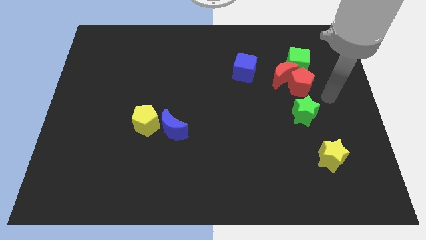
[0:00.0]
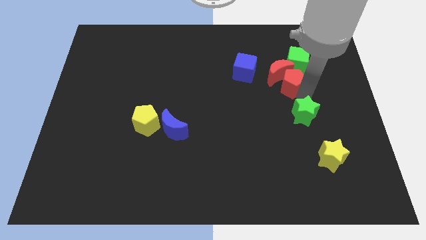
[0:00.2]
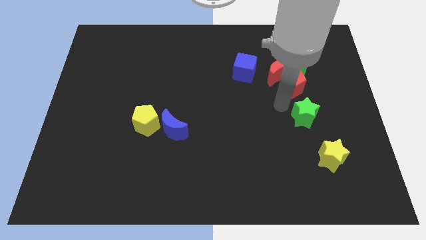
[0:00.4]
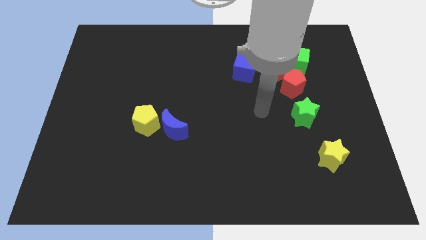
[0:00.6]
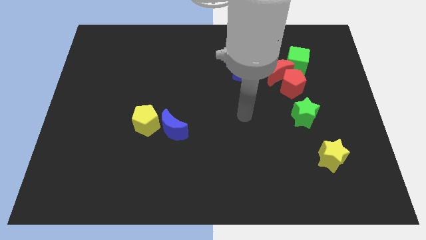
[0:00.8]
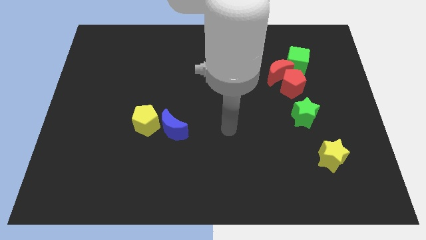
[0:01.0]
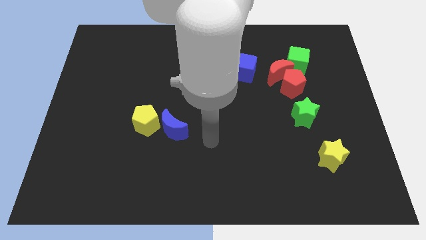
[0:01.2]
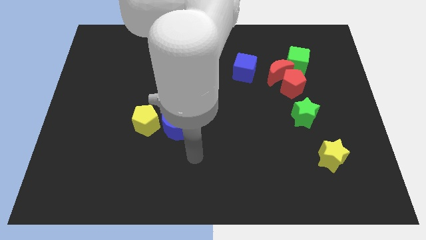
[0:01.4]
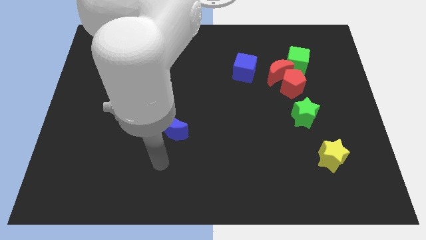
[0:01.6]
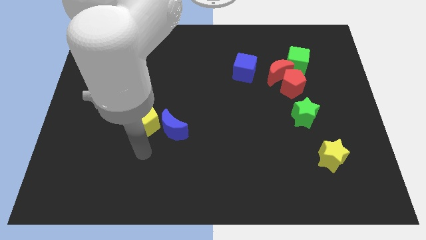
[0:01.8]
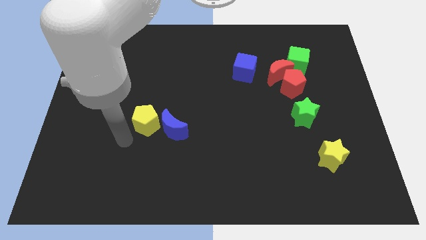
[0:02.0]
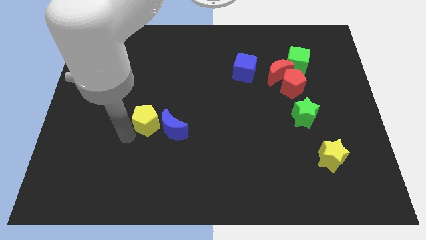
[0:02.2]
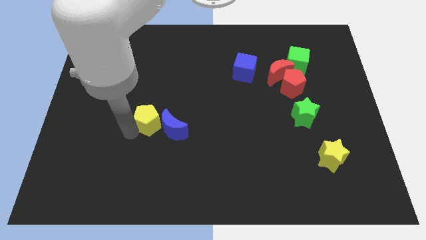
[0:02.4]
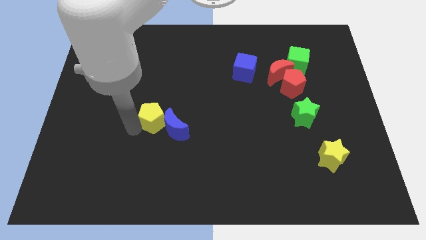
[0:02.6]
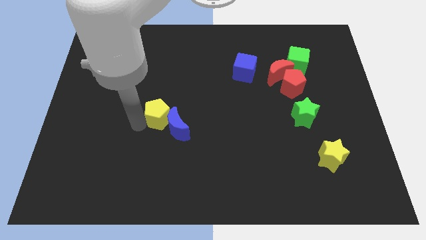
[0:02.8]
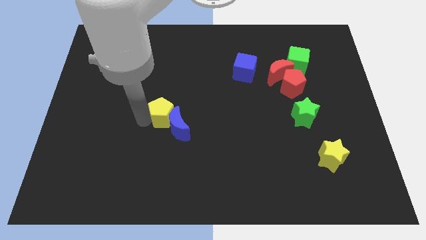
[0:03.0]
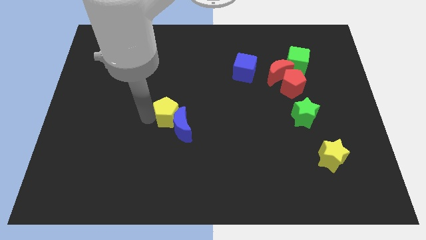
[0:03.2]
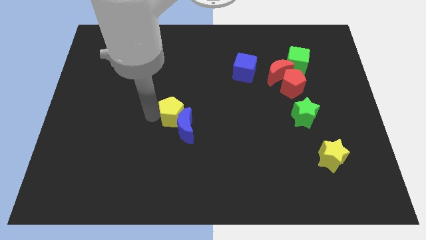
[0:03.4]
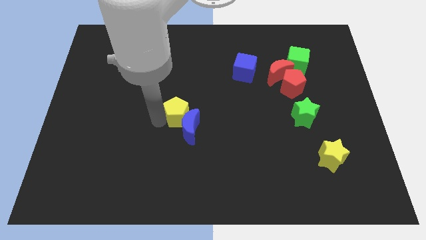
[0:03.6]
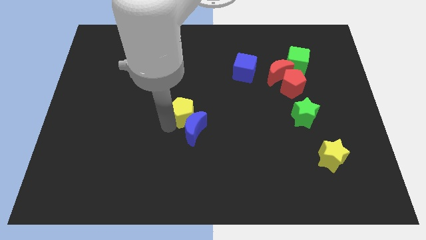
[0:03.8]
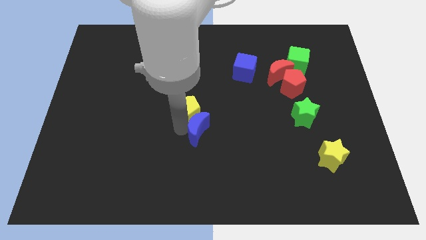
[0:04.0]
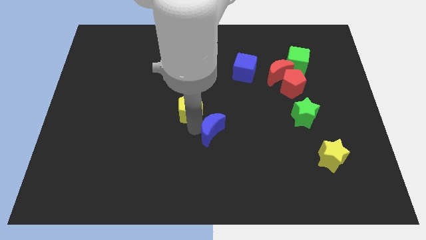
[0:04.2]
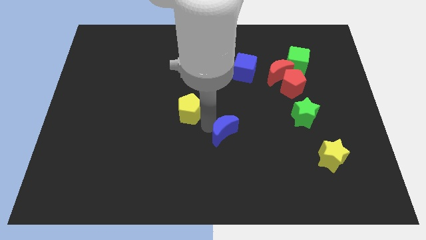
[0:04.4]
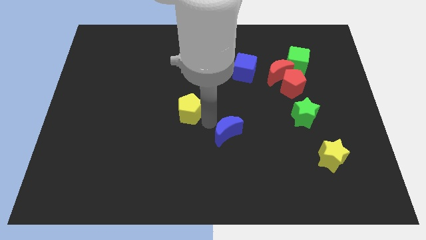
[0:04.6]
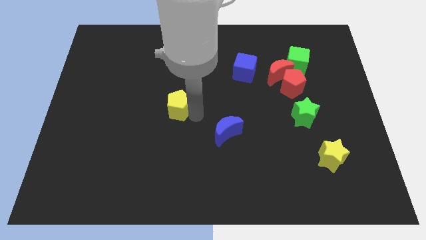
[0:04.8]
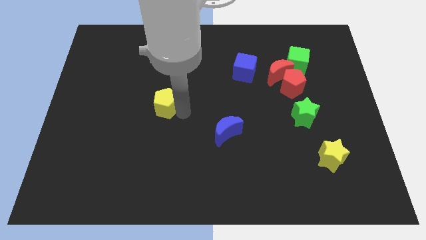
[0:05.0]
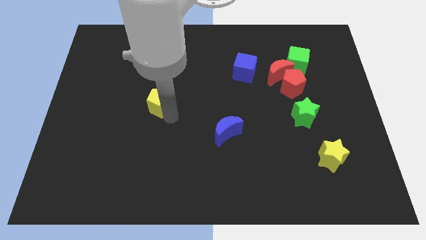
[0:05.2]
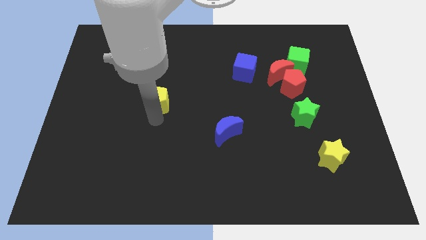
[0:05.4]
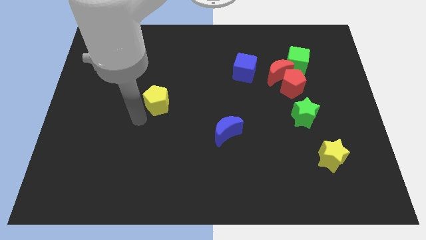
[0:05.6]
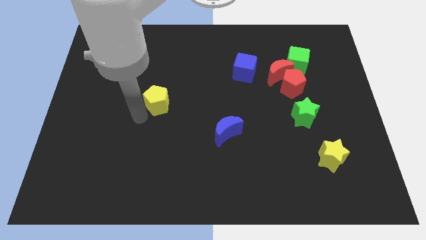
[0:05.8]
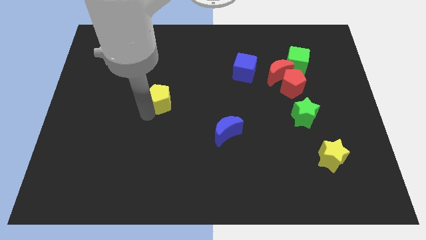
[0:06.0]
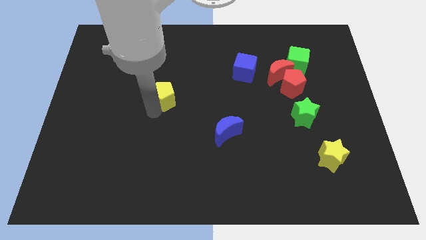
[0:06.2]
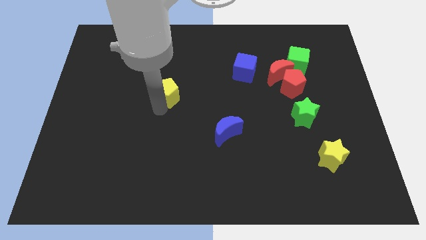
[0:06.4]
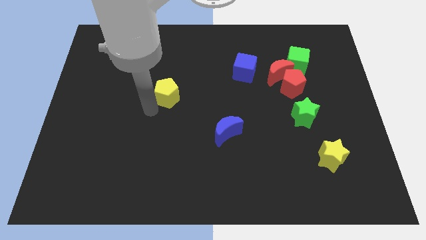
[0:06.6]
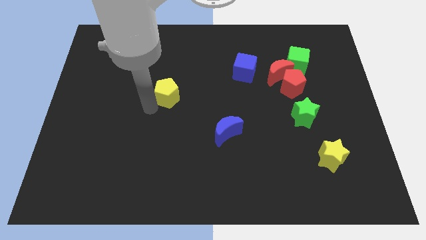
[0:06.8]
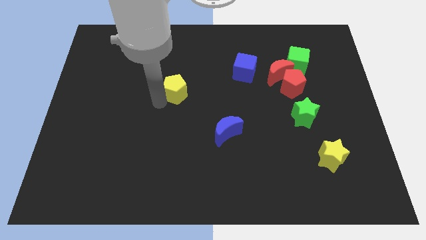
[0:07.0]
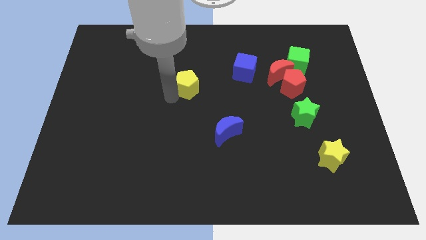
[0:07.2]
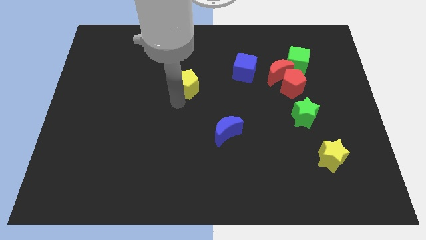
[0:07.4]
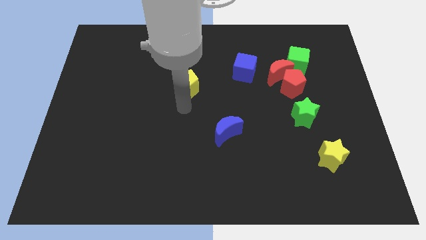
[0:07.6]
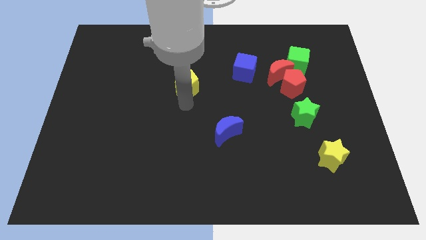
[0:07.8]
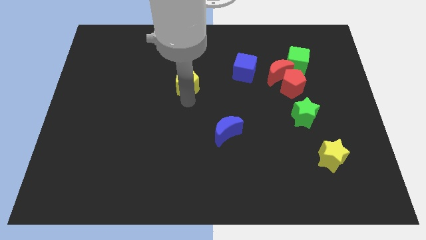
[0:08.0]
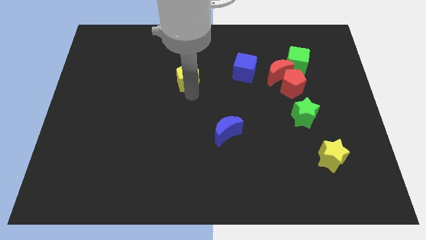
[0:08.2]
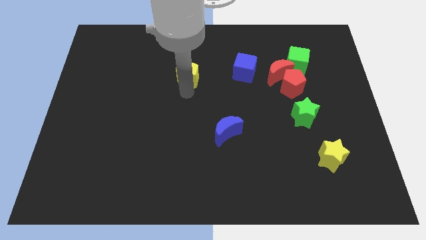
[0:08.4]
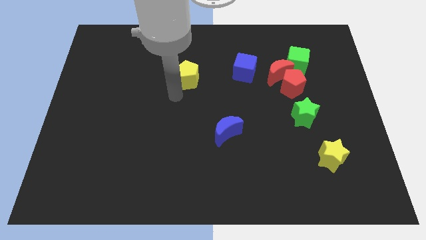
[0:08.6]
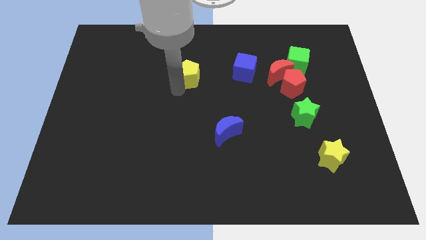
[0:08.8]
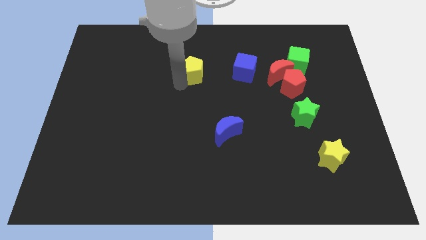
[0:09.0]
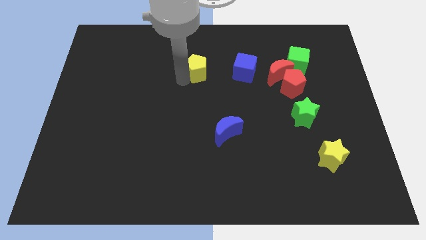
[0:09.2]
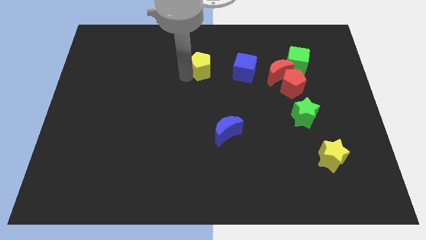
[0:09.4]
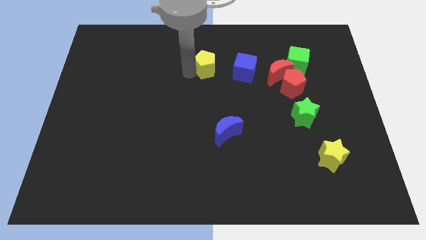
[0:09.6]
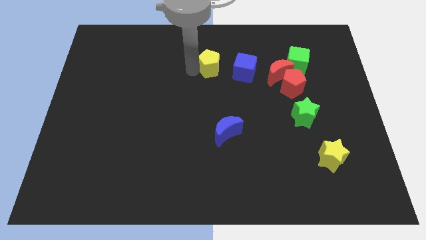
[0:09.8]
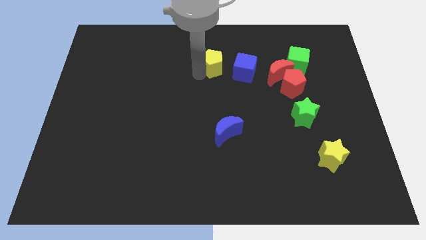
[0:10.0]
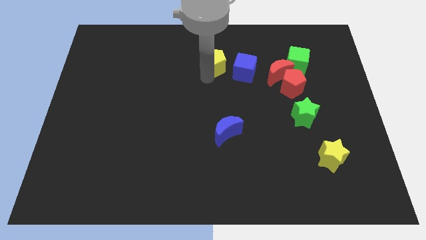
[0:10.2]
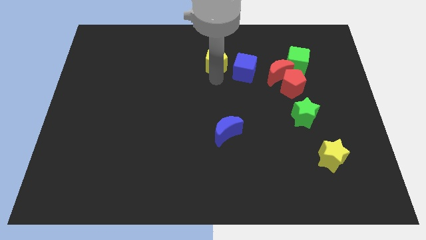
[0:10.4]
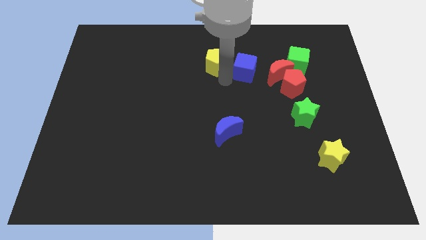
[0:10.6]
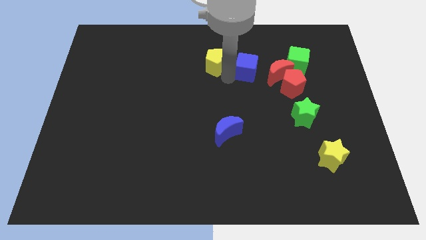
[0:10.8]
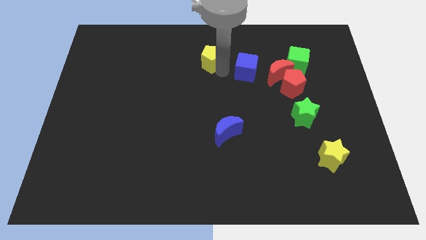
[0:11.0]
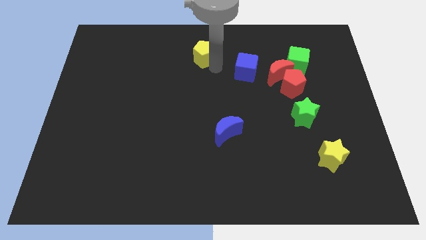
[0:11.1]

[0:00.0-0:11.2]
move the yellow pentagon to the top

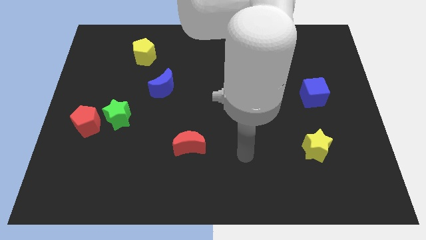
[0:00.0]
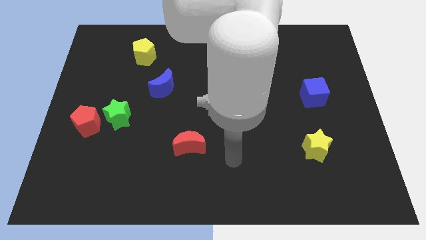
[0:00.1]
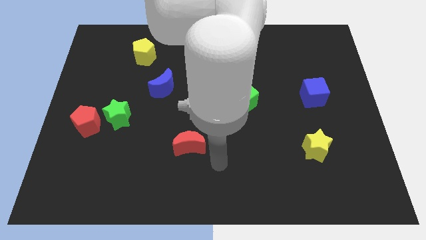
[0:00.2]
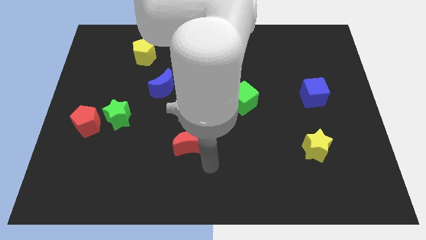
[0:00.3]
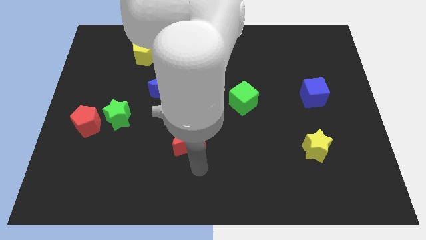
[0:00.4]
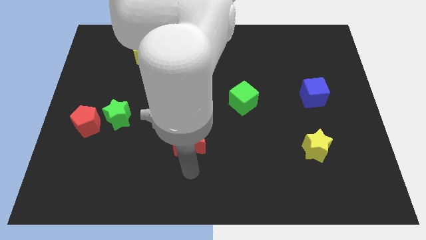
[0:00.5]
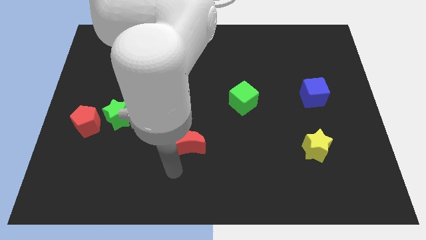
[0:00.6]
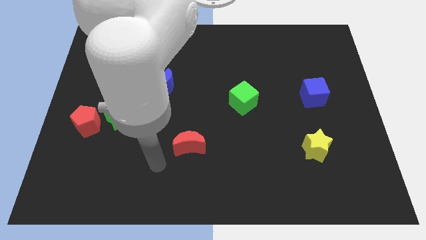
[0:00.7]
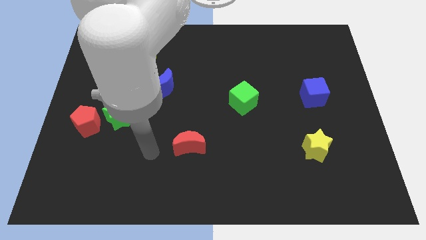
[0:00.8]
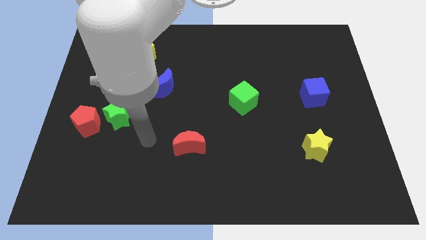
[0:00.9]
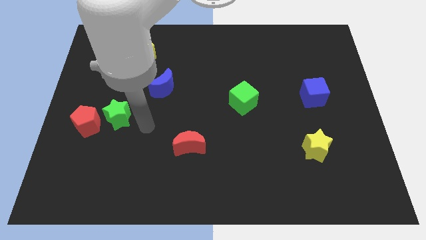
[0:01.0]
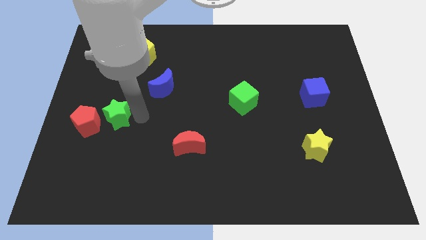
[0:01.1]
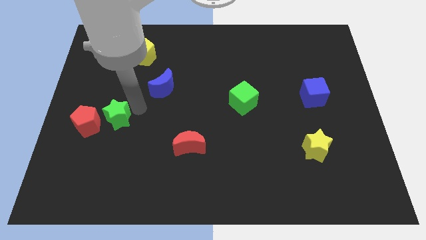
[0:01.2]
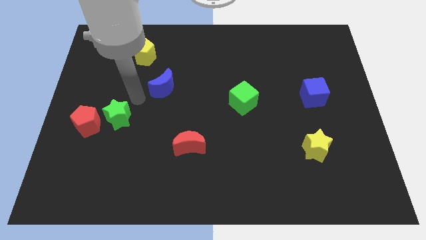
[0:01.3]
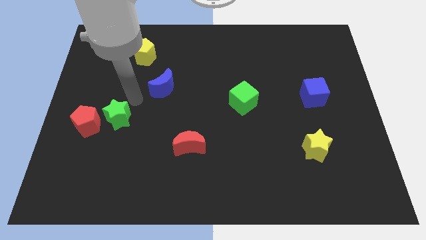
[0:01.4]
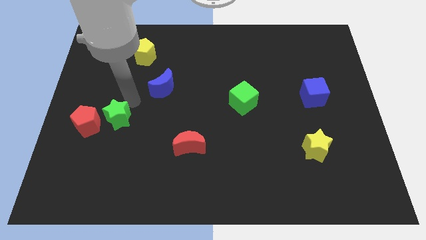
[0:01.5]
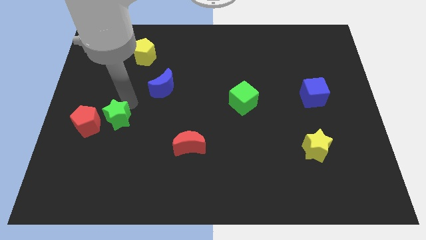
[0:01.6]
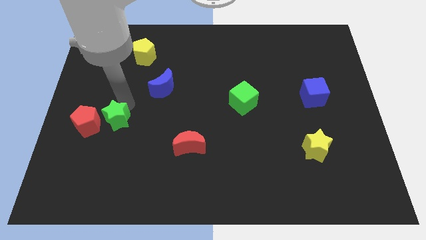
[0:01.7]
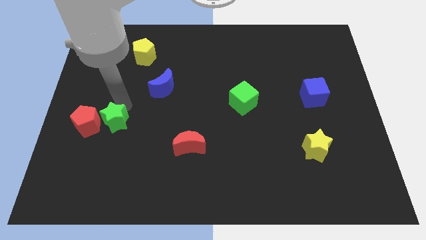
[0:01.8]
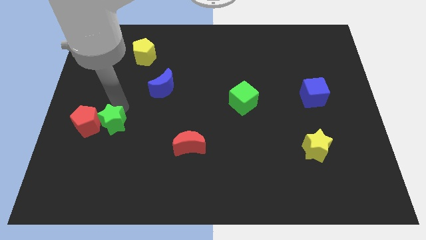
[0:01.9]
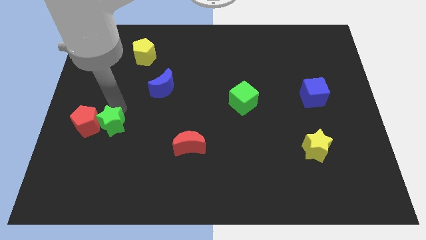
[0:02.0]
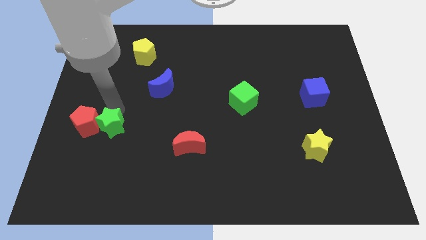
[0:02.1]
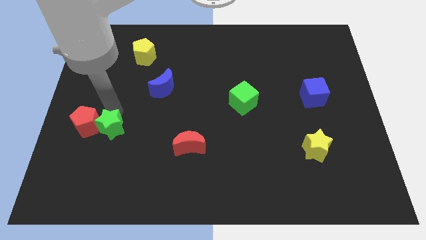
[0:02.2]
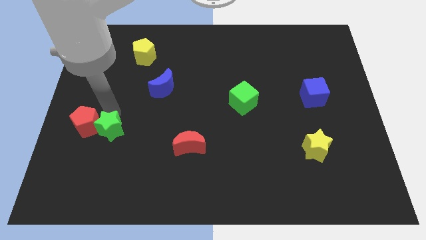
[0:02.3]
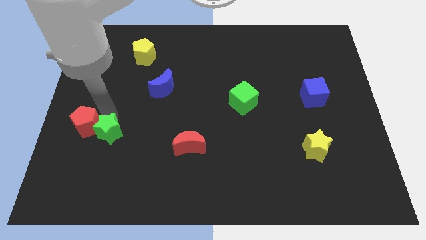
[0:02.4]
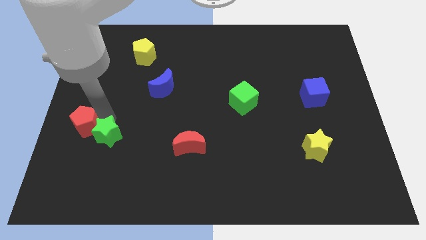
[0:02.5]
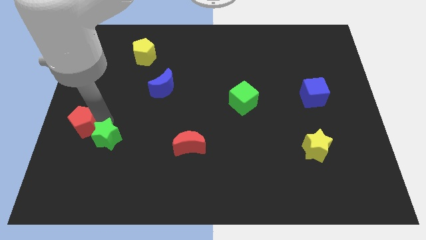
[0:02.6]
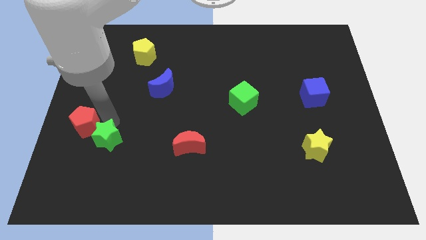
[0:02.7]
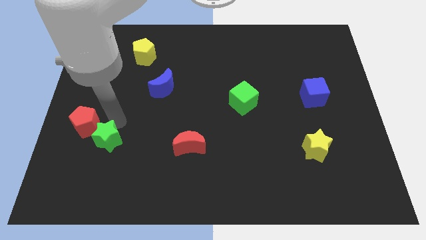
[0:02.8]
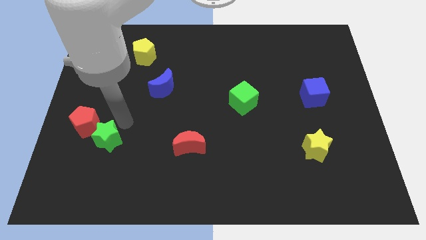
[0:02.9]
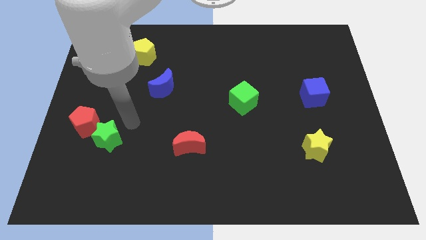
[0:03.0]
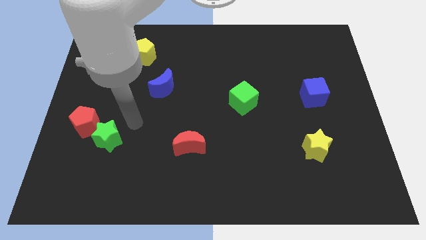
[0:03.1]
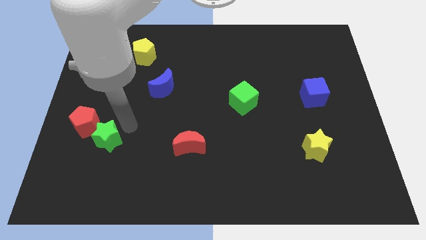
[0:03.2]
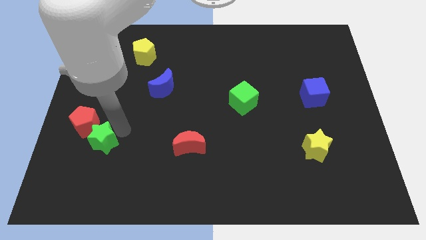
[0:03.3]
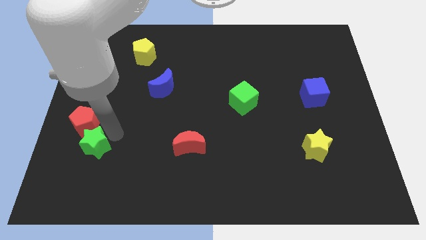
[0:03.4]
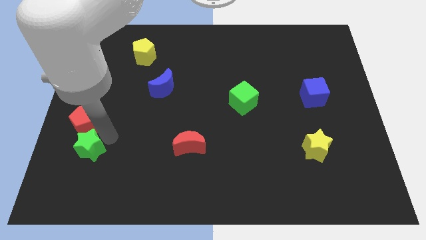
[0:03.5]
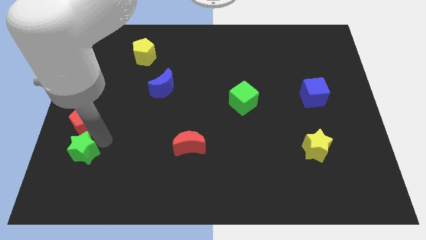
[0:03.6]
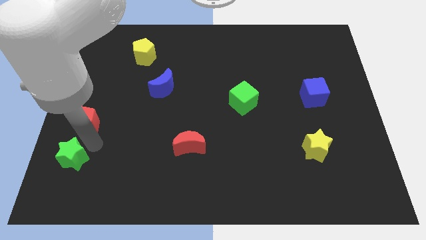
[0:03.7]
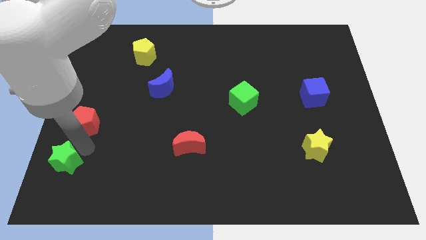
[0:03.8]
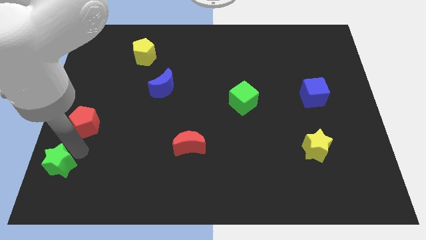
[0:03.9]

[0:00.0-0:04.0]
move the green star to the bottom left corner
